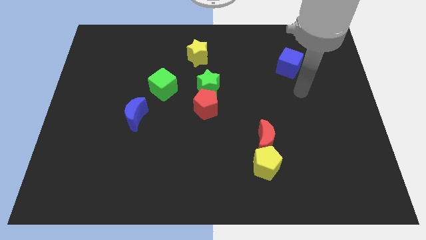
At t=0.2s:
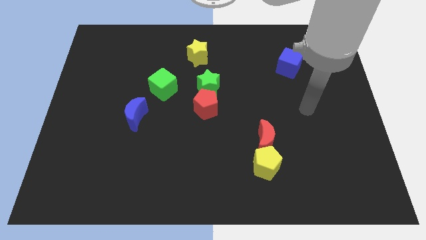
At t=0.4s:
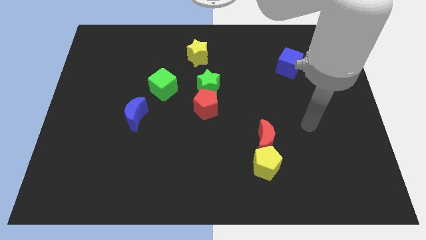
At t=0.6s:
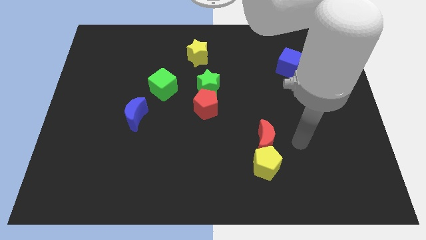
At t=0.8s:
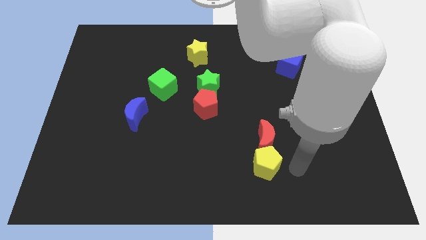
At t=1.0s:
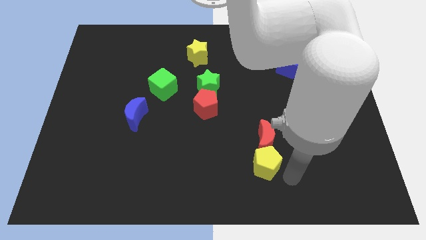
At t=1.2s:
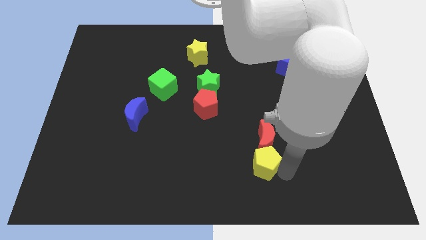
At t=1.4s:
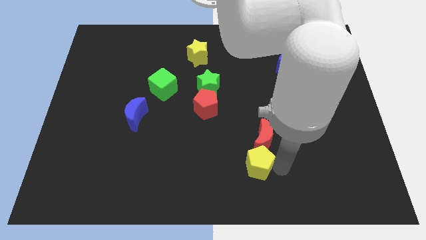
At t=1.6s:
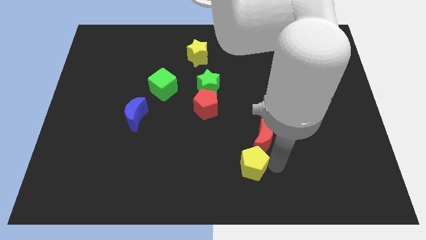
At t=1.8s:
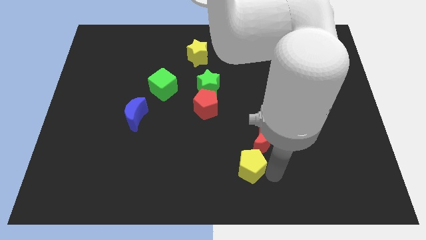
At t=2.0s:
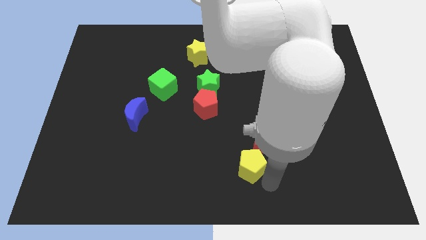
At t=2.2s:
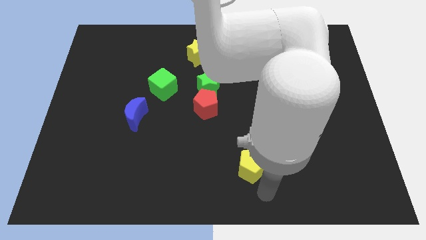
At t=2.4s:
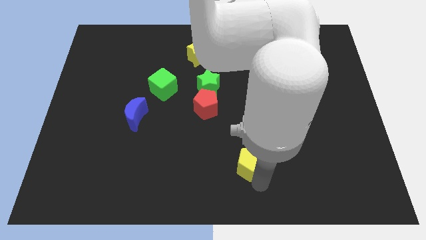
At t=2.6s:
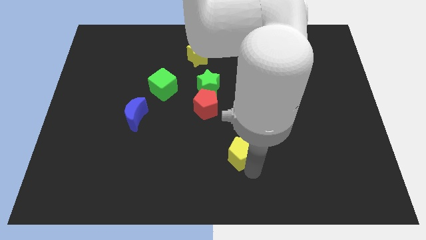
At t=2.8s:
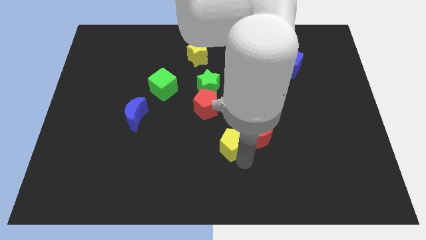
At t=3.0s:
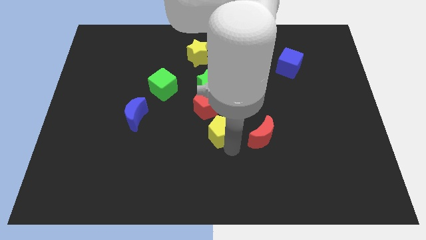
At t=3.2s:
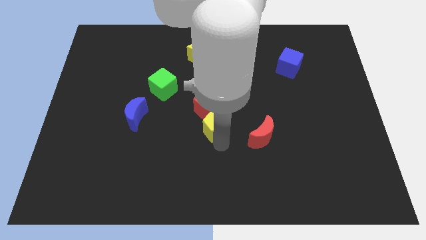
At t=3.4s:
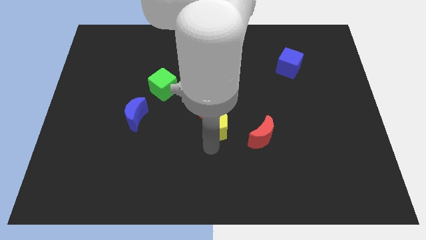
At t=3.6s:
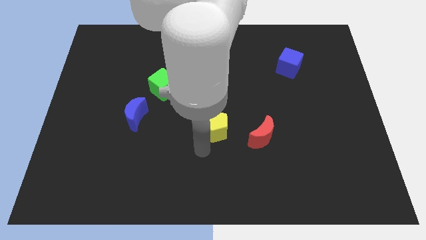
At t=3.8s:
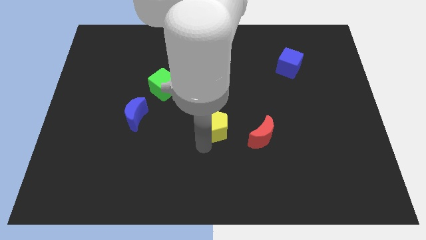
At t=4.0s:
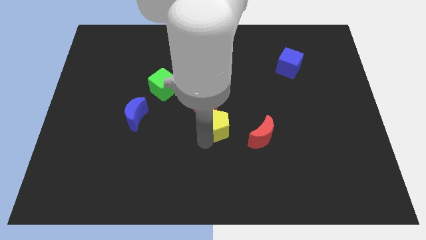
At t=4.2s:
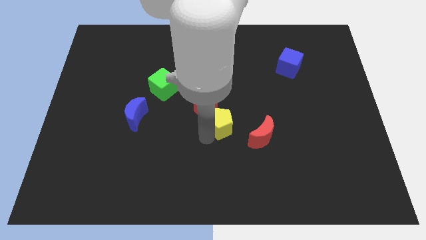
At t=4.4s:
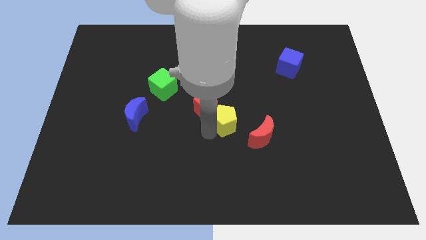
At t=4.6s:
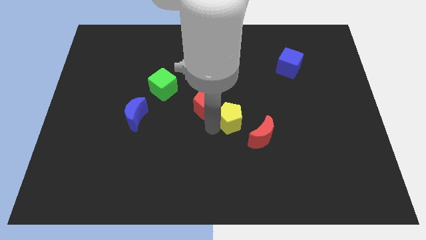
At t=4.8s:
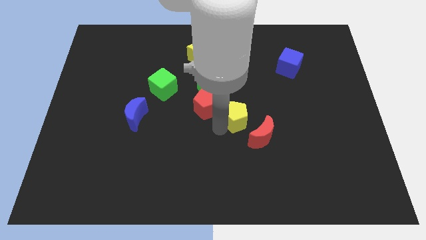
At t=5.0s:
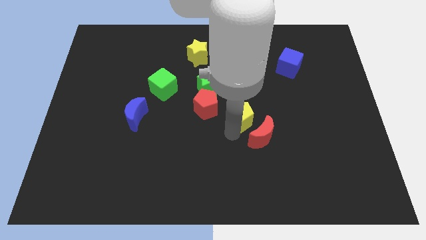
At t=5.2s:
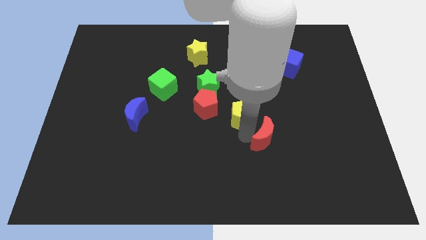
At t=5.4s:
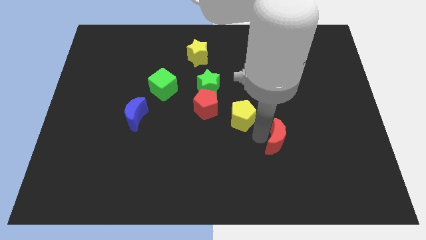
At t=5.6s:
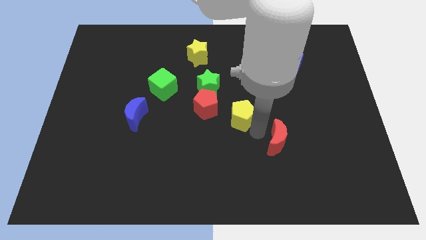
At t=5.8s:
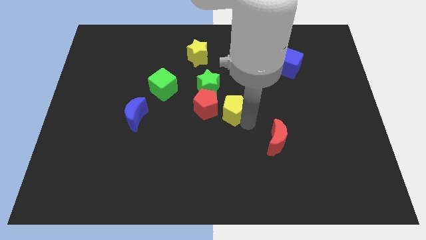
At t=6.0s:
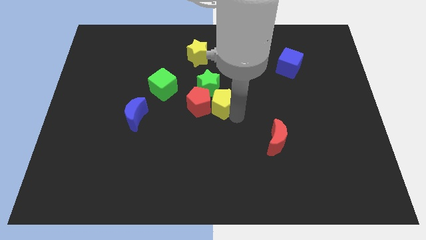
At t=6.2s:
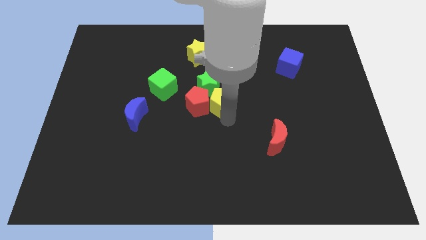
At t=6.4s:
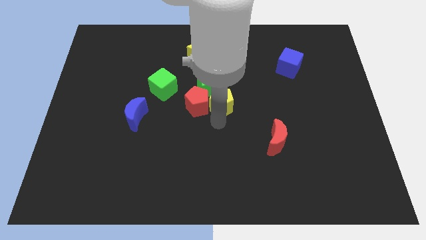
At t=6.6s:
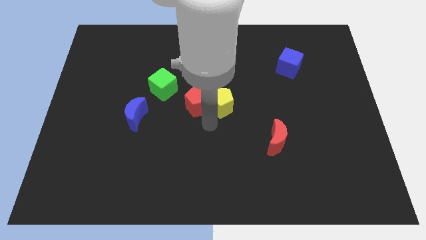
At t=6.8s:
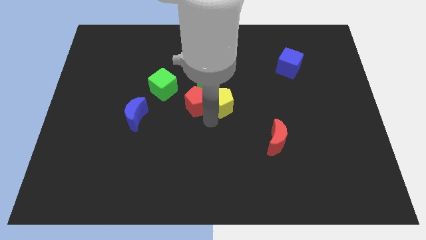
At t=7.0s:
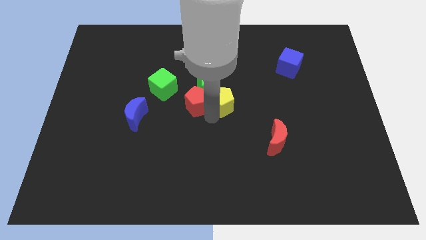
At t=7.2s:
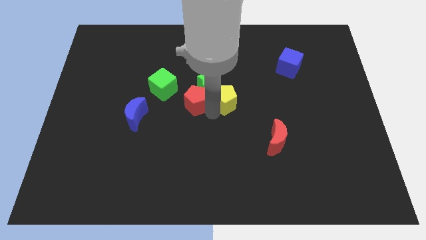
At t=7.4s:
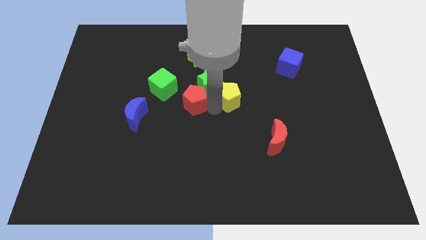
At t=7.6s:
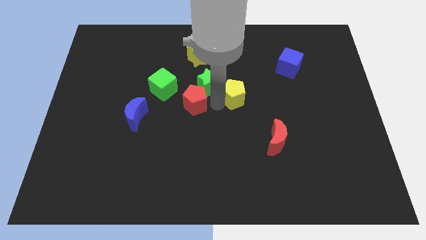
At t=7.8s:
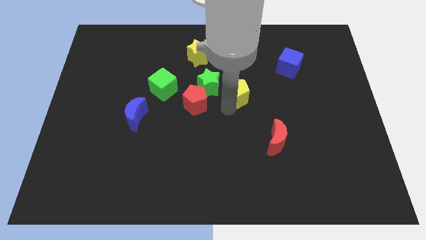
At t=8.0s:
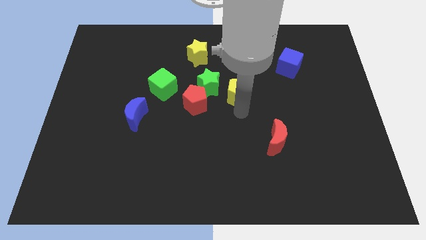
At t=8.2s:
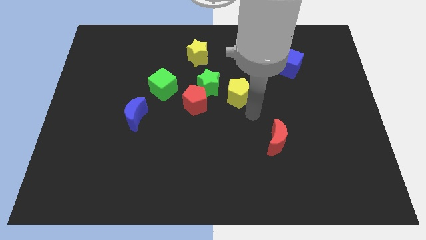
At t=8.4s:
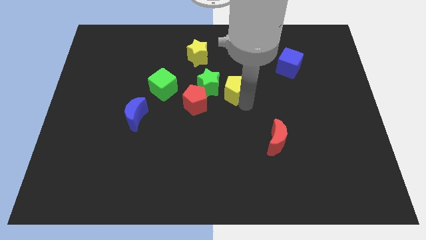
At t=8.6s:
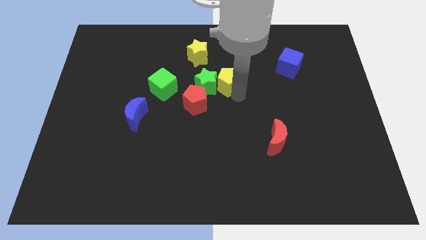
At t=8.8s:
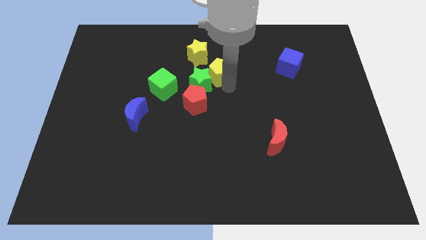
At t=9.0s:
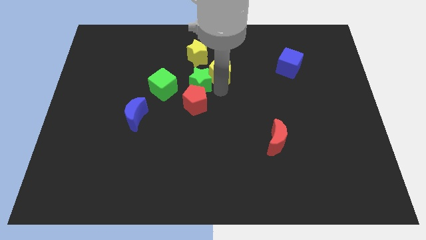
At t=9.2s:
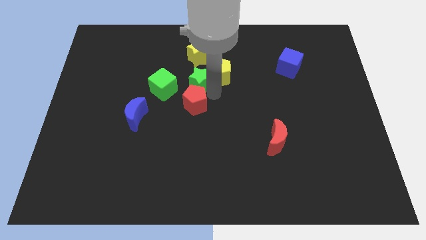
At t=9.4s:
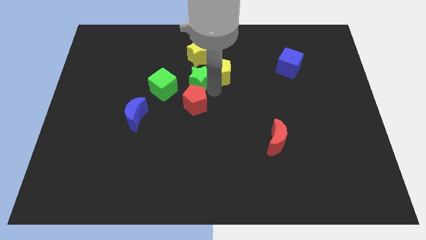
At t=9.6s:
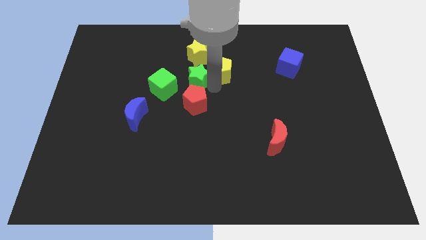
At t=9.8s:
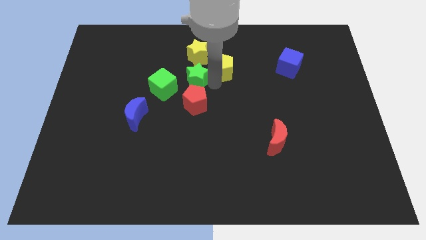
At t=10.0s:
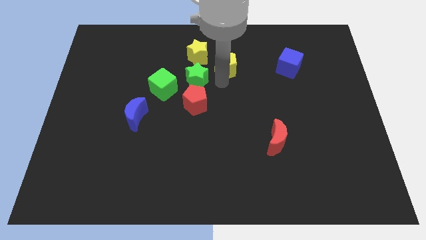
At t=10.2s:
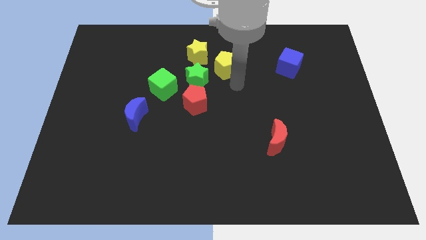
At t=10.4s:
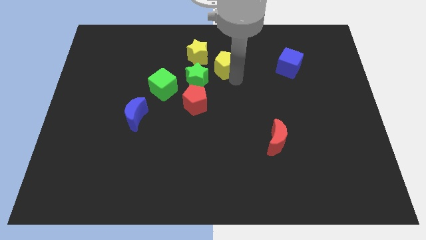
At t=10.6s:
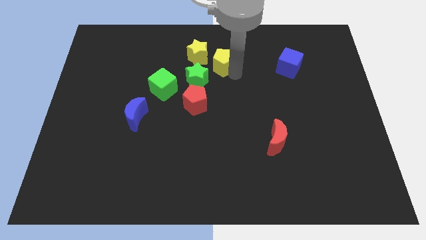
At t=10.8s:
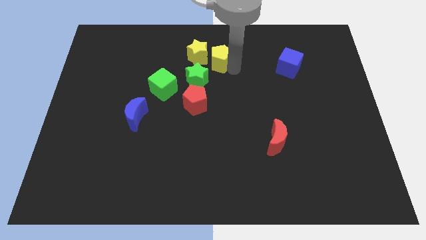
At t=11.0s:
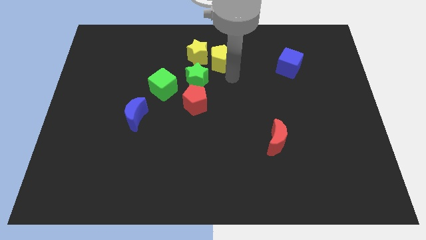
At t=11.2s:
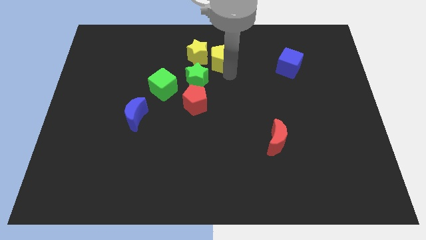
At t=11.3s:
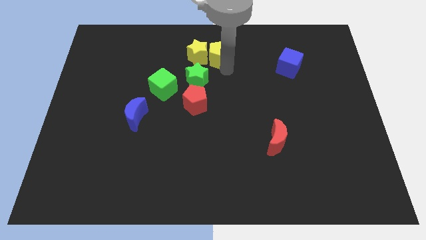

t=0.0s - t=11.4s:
push the yellow pentagon to the towards your base

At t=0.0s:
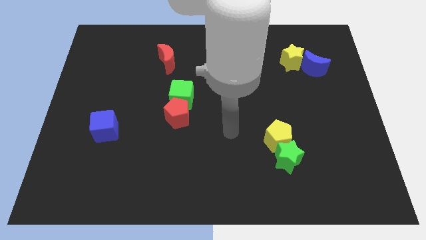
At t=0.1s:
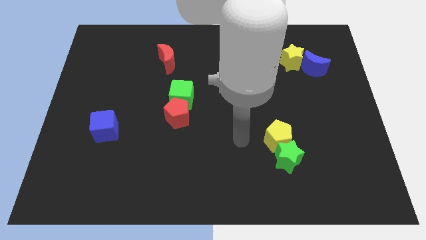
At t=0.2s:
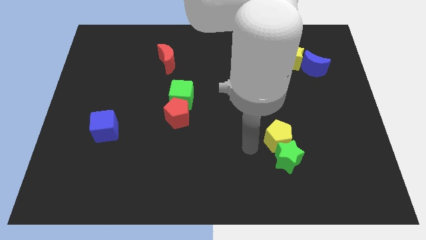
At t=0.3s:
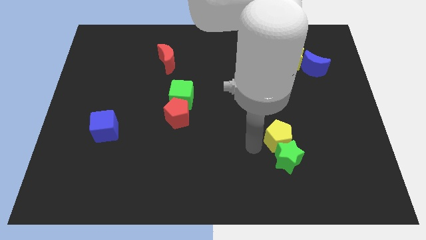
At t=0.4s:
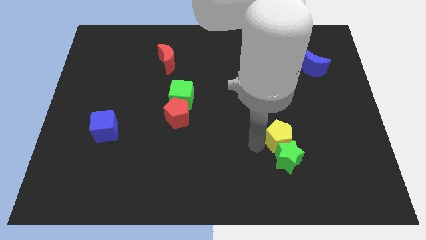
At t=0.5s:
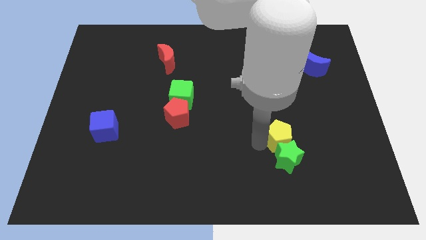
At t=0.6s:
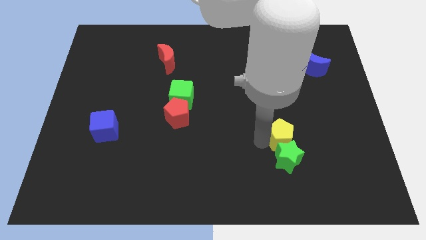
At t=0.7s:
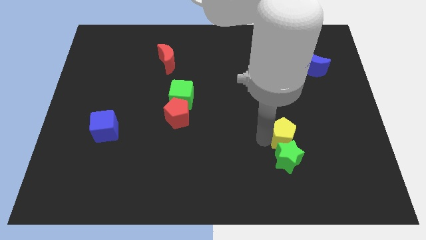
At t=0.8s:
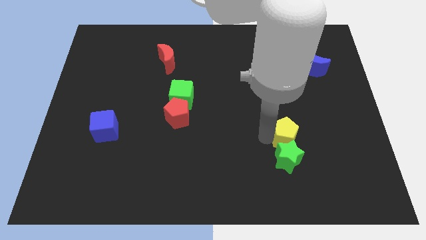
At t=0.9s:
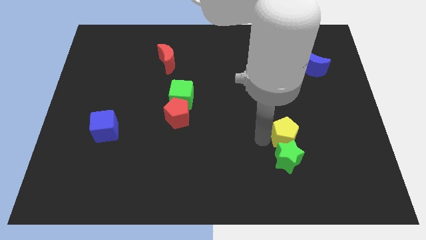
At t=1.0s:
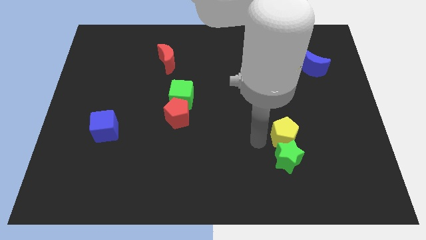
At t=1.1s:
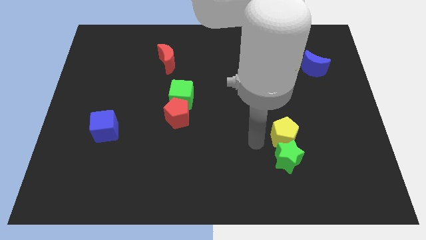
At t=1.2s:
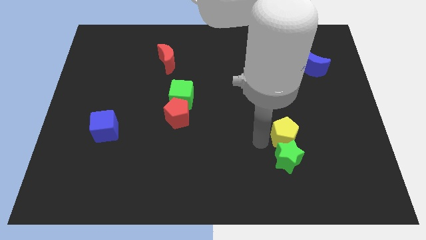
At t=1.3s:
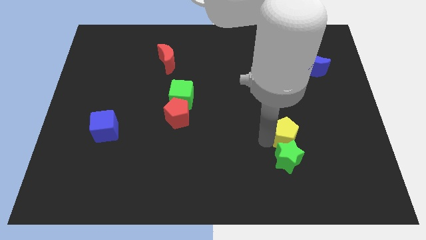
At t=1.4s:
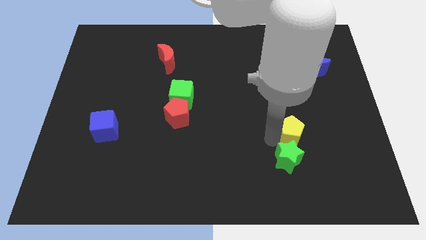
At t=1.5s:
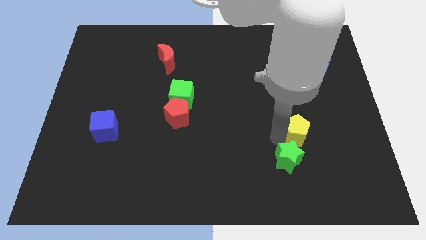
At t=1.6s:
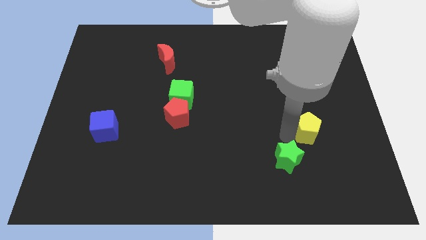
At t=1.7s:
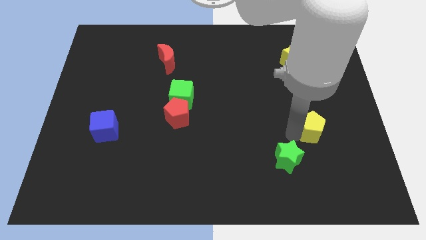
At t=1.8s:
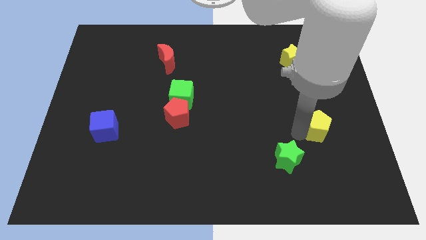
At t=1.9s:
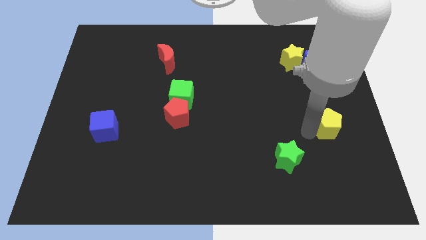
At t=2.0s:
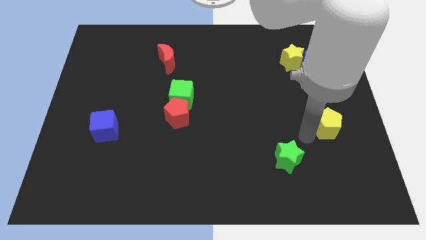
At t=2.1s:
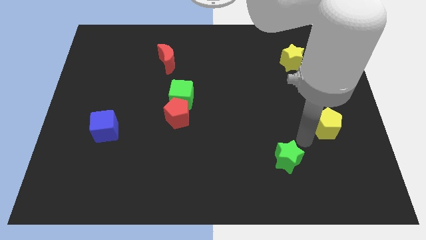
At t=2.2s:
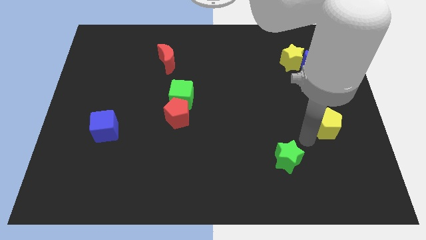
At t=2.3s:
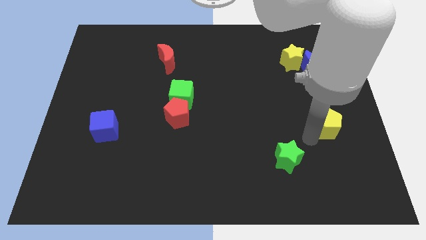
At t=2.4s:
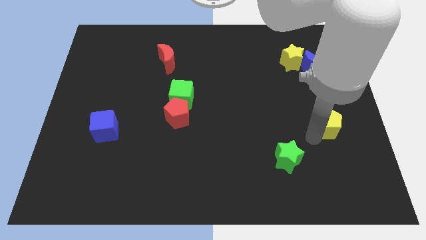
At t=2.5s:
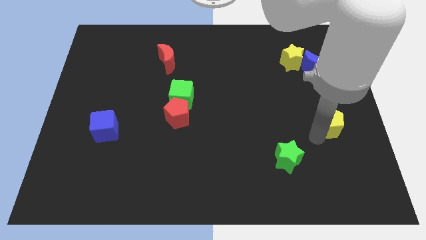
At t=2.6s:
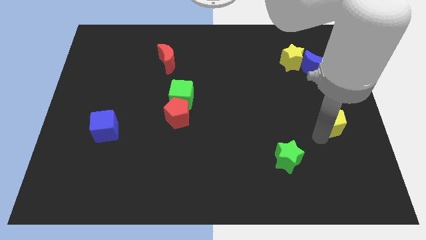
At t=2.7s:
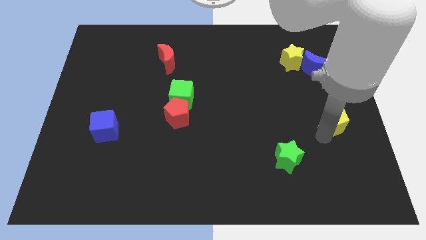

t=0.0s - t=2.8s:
push the yellow pentagon to the right side
